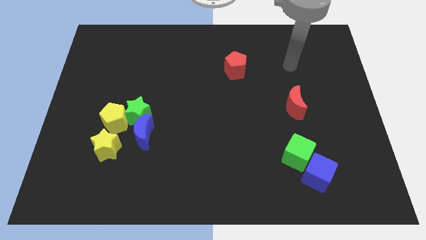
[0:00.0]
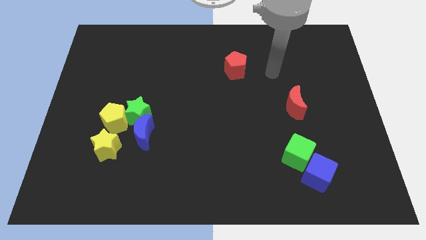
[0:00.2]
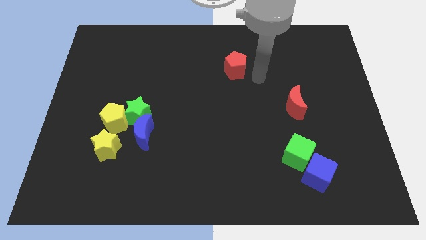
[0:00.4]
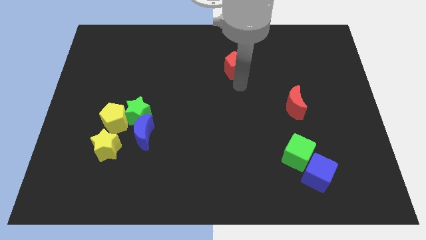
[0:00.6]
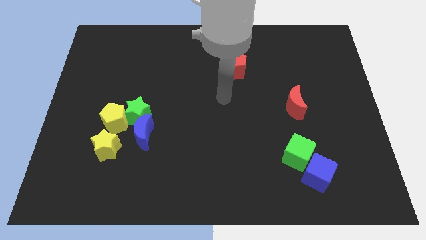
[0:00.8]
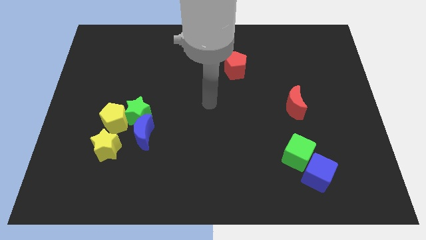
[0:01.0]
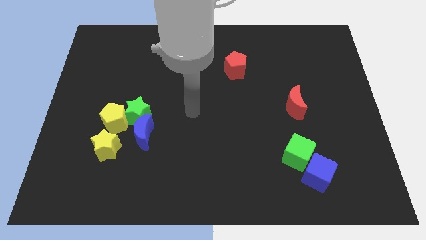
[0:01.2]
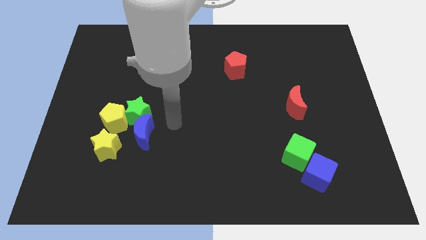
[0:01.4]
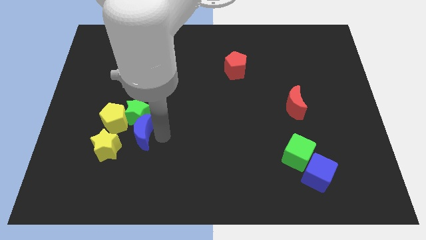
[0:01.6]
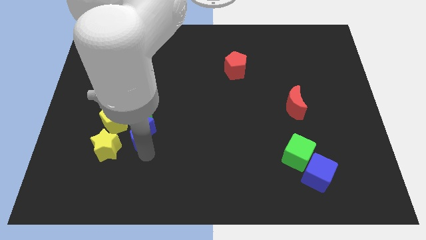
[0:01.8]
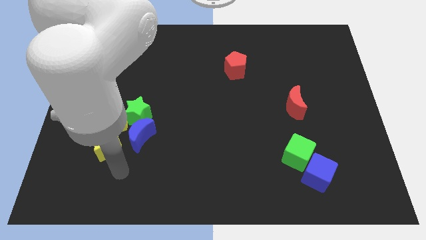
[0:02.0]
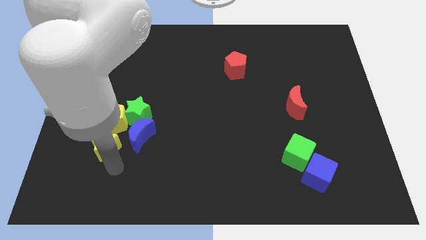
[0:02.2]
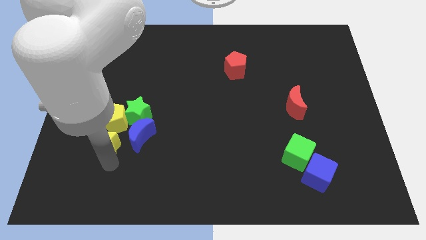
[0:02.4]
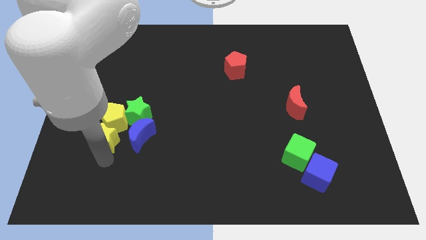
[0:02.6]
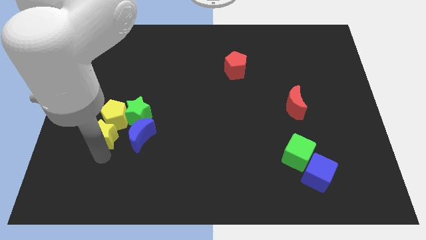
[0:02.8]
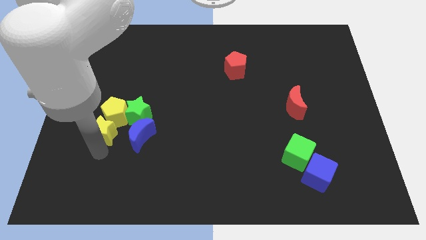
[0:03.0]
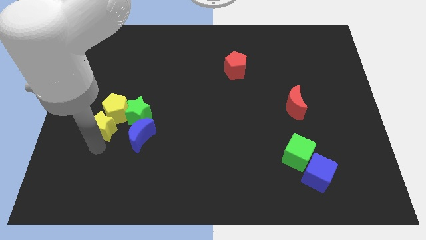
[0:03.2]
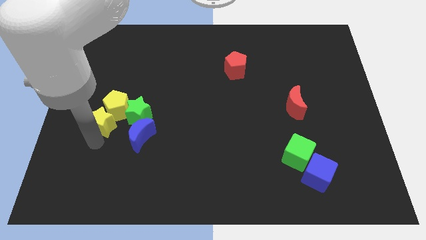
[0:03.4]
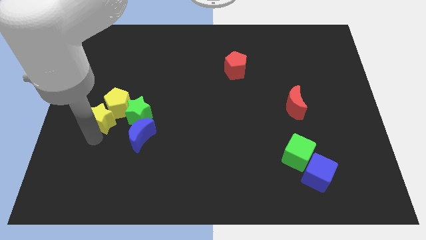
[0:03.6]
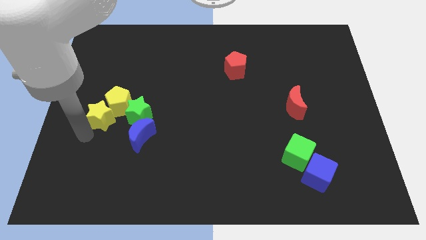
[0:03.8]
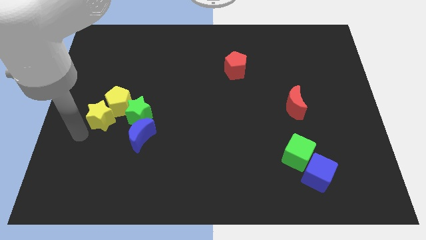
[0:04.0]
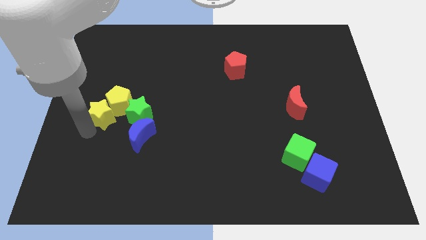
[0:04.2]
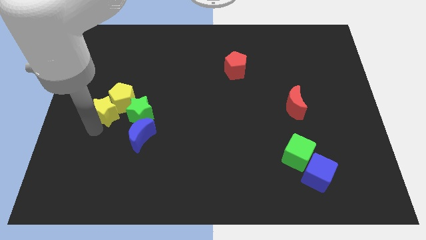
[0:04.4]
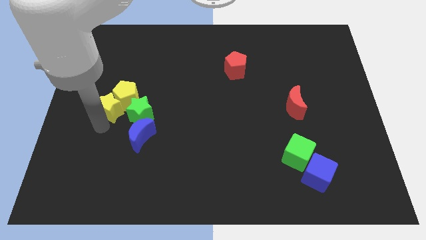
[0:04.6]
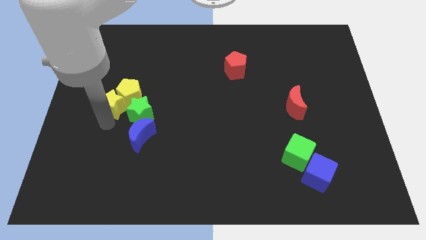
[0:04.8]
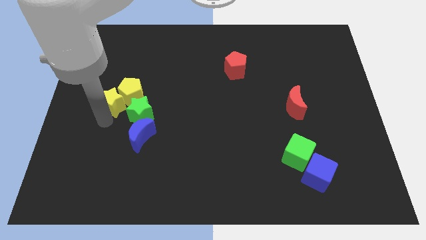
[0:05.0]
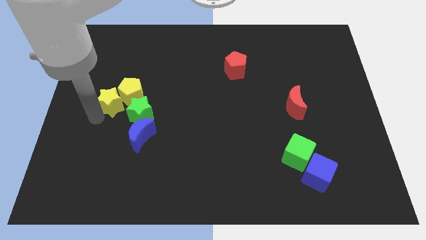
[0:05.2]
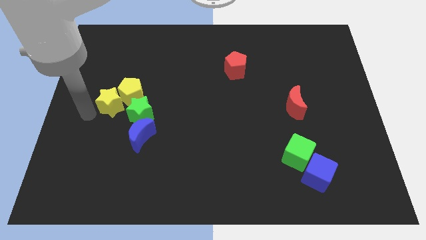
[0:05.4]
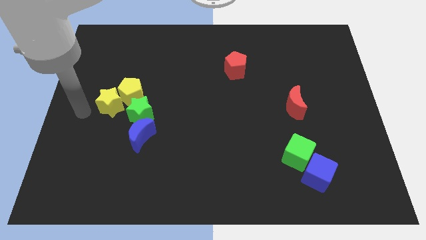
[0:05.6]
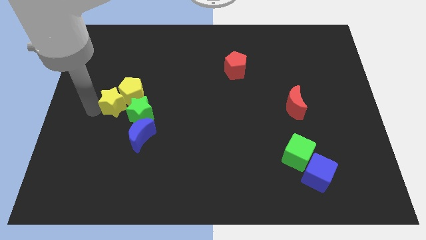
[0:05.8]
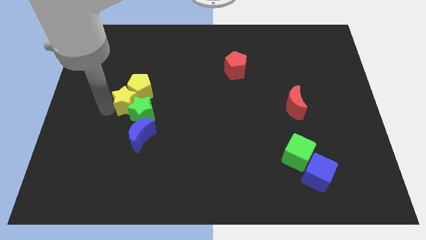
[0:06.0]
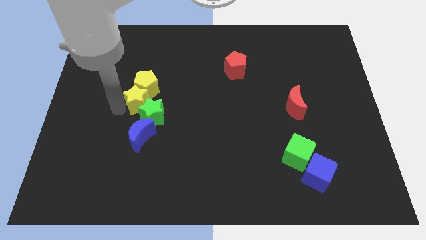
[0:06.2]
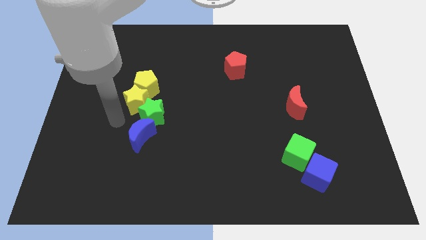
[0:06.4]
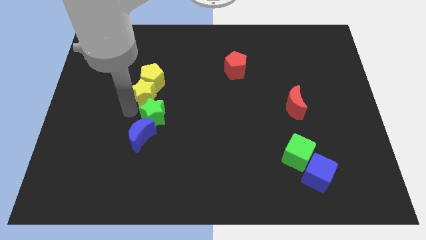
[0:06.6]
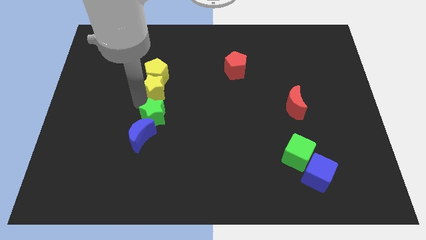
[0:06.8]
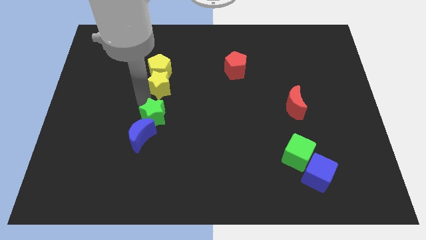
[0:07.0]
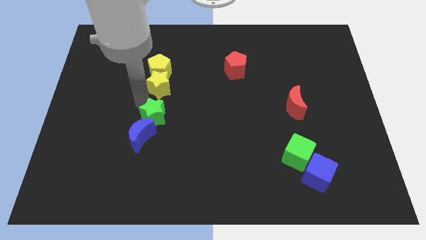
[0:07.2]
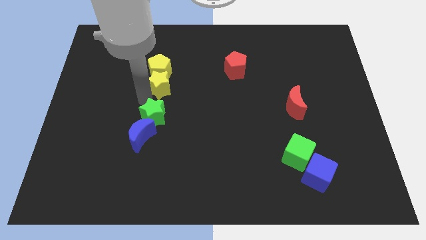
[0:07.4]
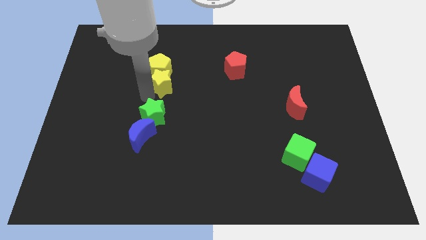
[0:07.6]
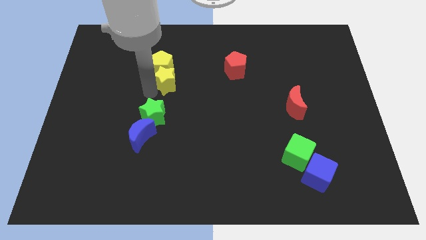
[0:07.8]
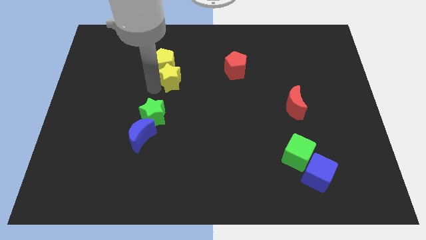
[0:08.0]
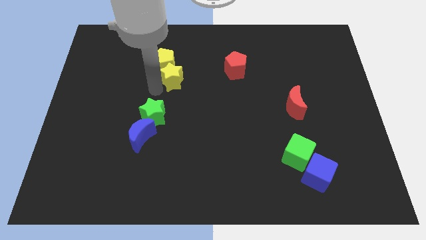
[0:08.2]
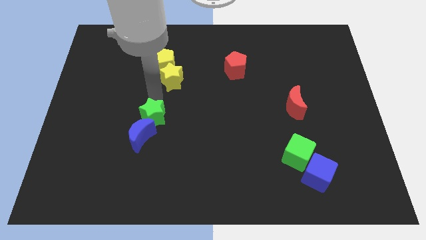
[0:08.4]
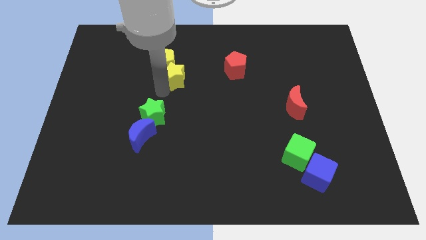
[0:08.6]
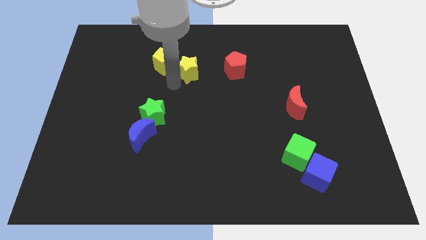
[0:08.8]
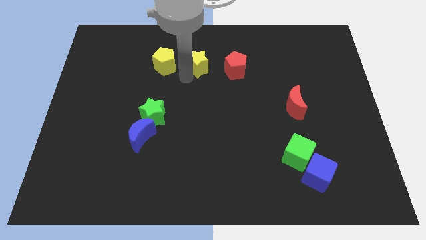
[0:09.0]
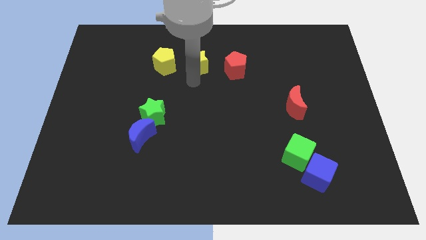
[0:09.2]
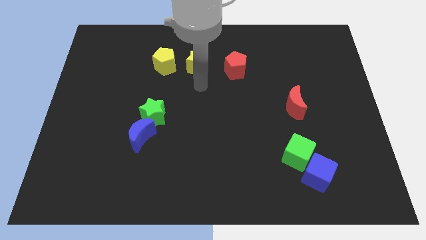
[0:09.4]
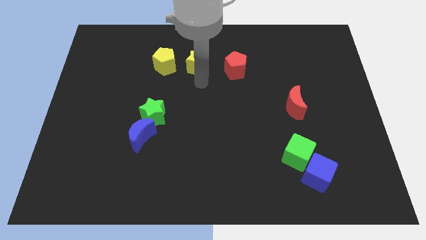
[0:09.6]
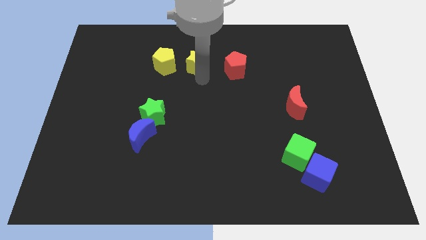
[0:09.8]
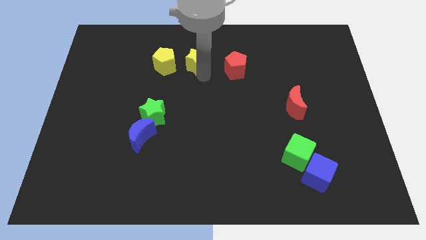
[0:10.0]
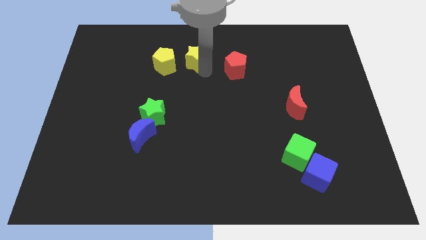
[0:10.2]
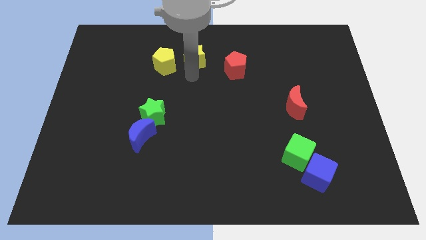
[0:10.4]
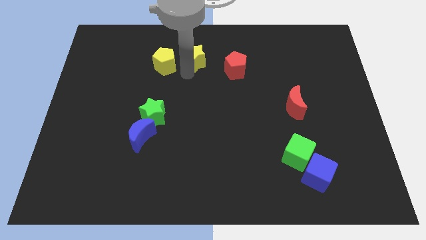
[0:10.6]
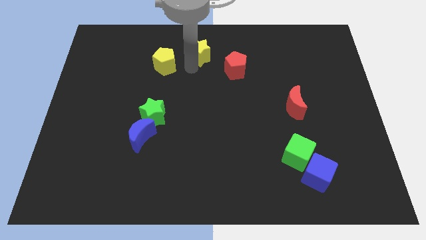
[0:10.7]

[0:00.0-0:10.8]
move the yellow star to the top

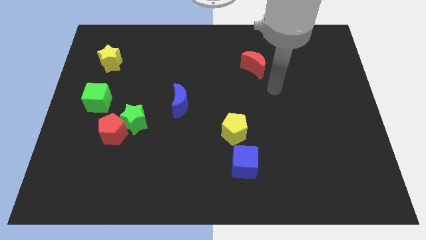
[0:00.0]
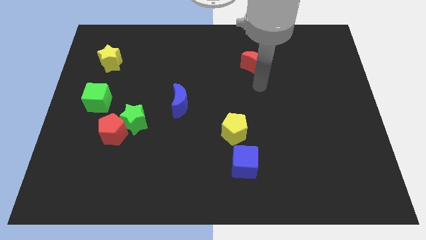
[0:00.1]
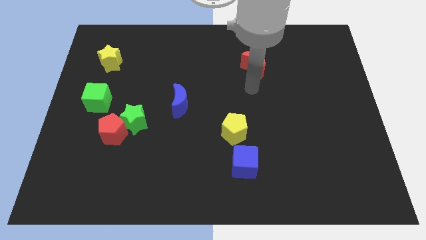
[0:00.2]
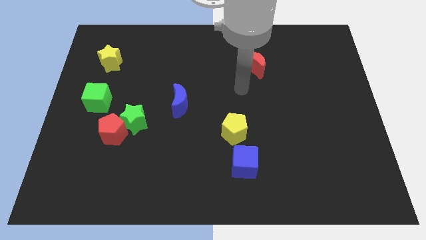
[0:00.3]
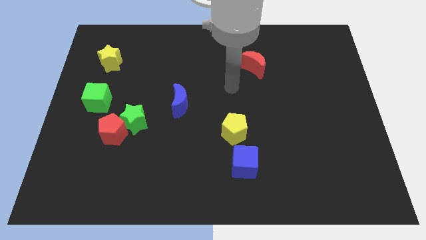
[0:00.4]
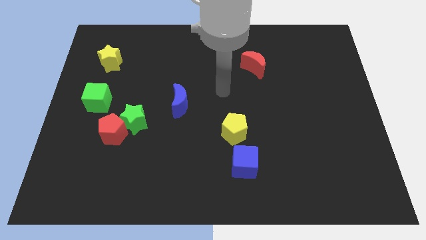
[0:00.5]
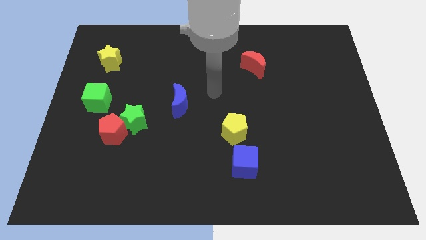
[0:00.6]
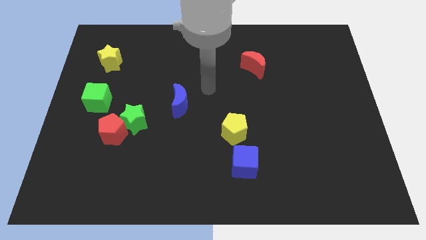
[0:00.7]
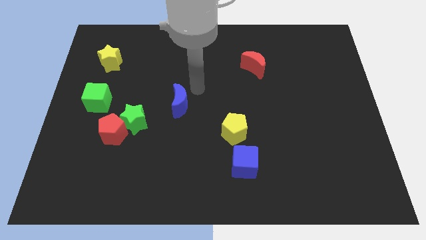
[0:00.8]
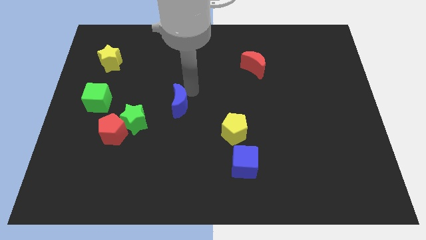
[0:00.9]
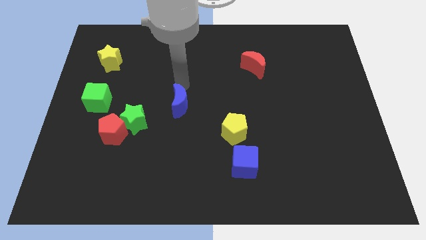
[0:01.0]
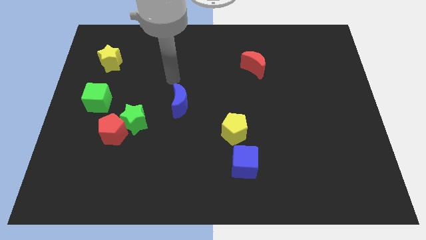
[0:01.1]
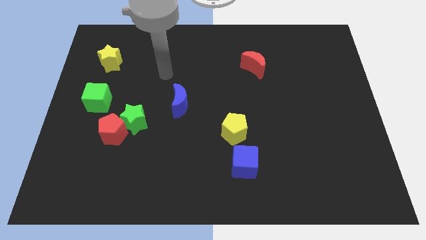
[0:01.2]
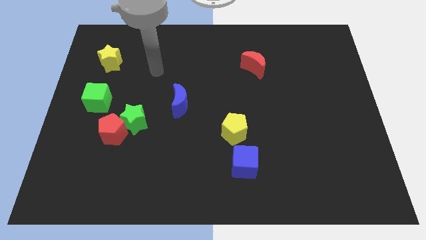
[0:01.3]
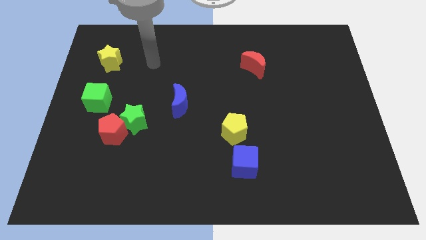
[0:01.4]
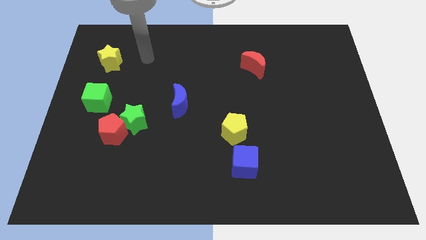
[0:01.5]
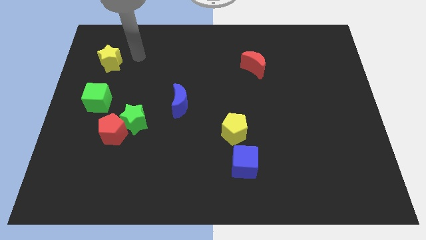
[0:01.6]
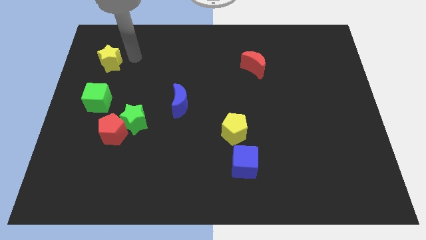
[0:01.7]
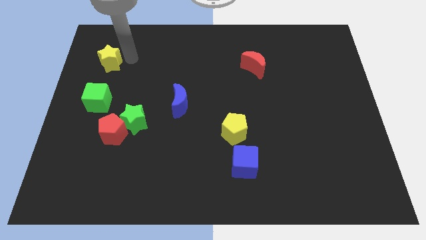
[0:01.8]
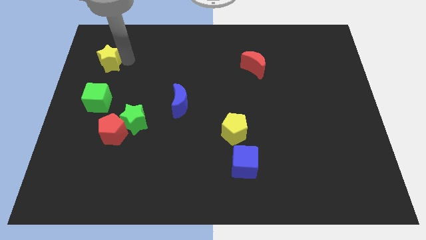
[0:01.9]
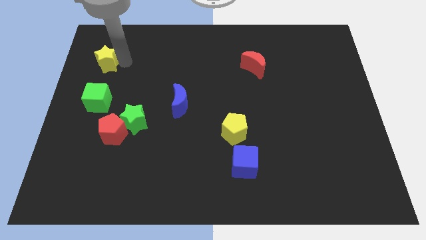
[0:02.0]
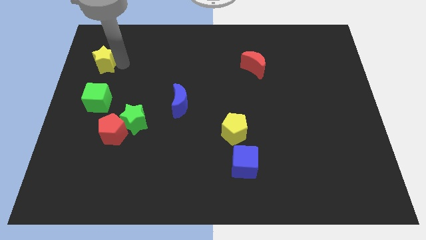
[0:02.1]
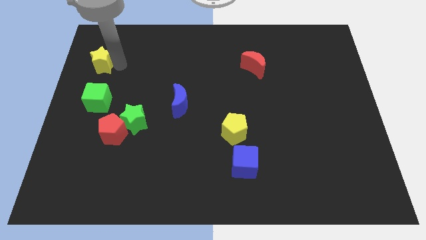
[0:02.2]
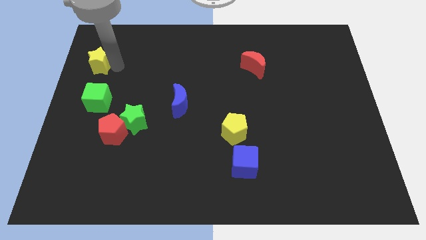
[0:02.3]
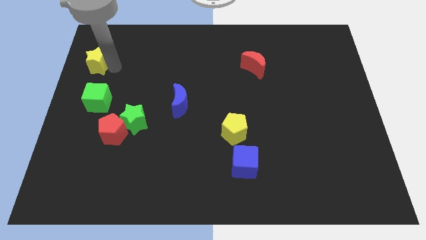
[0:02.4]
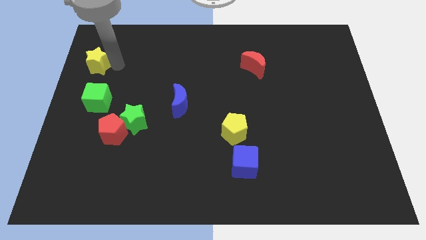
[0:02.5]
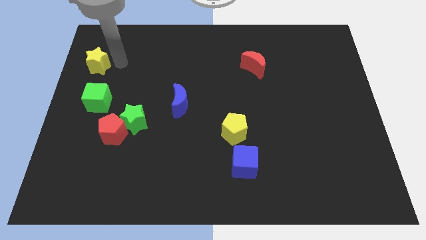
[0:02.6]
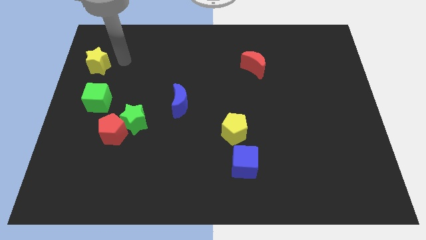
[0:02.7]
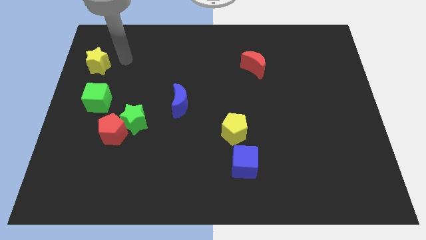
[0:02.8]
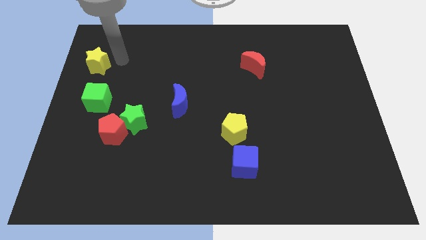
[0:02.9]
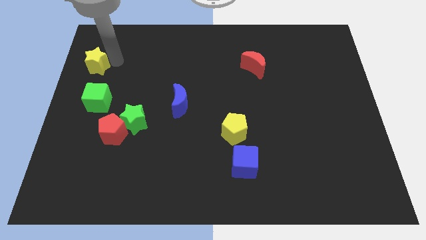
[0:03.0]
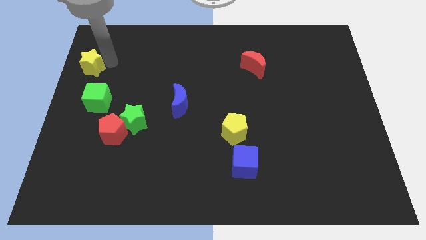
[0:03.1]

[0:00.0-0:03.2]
put the yellow star to the left side
